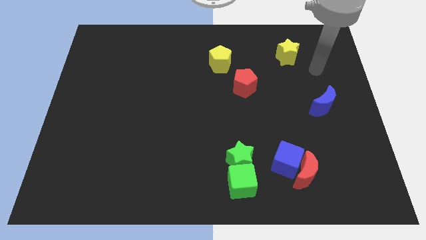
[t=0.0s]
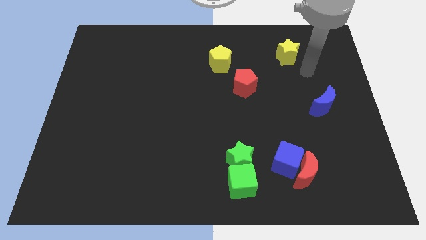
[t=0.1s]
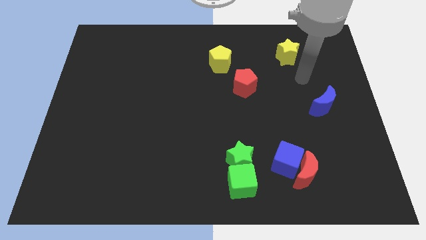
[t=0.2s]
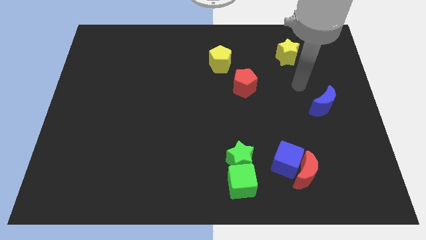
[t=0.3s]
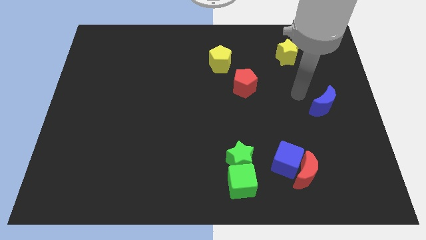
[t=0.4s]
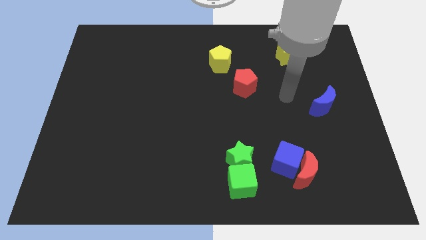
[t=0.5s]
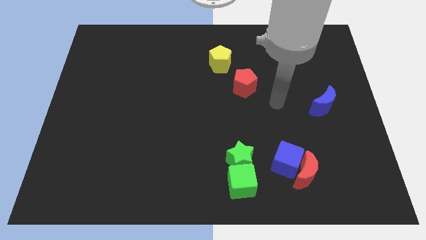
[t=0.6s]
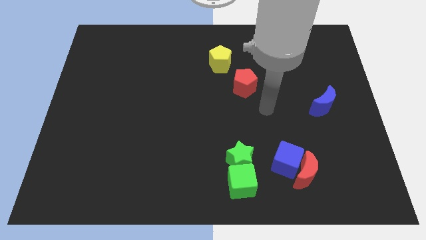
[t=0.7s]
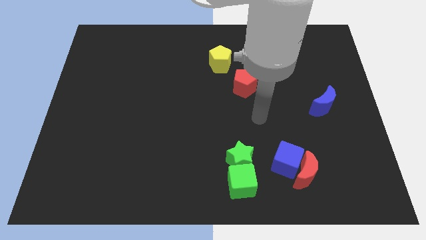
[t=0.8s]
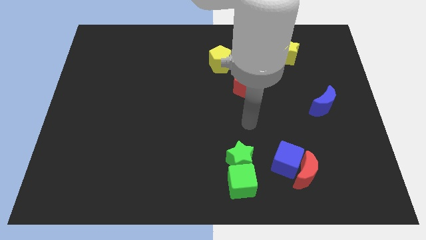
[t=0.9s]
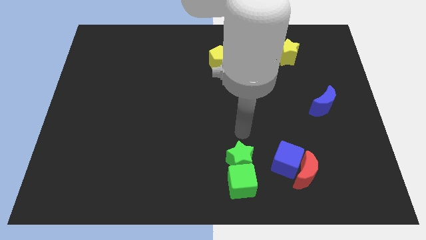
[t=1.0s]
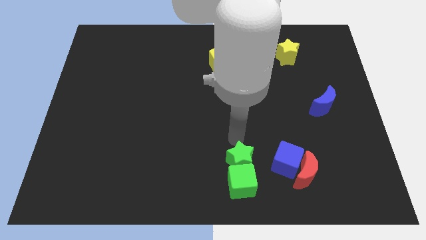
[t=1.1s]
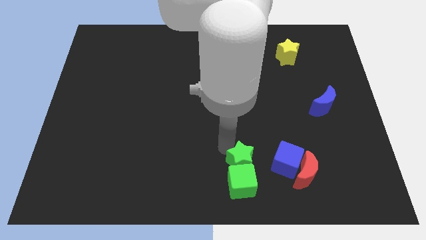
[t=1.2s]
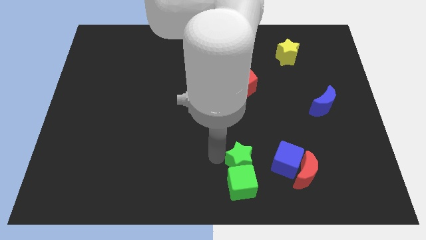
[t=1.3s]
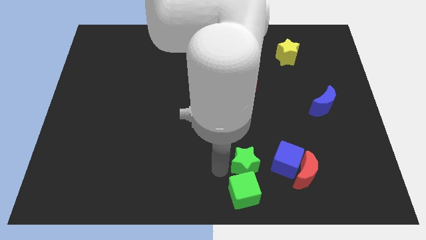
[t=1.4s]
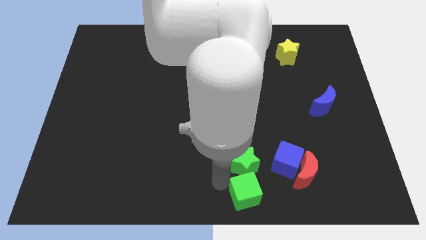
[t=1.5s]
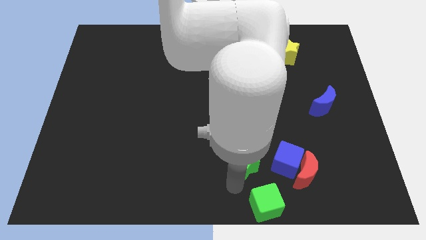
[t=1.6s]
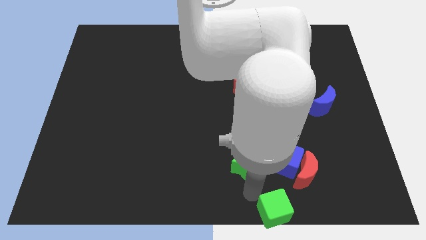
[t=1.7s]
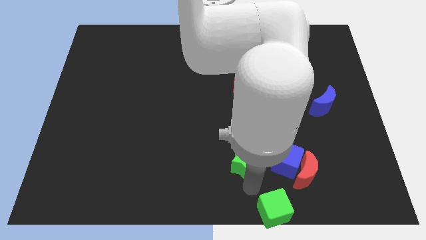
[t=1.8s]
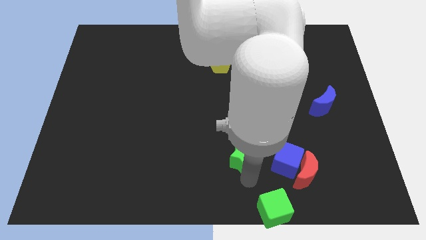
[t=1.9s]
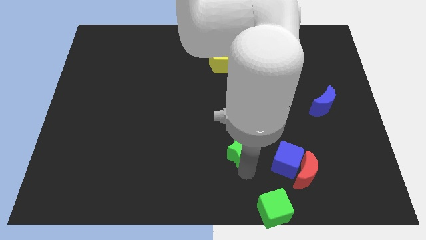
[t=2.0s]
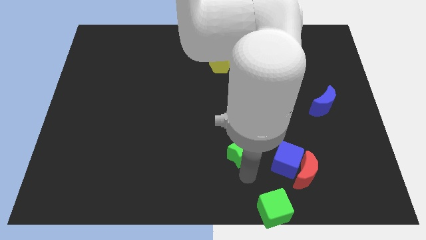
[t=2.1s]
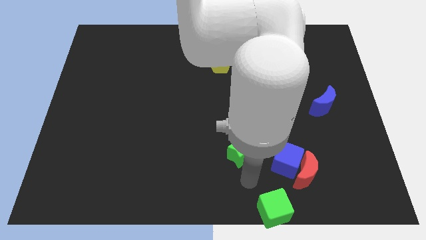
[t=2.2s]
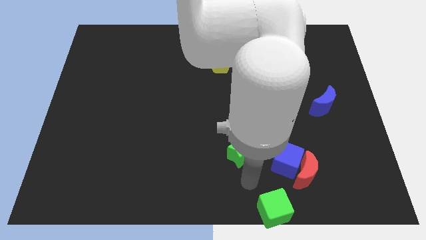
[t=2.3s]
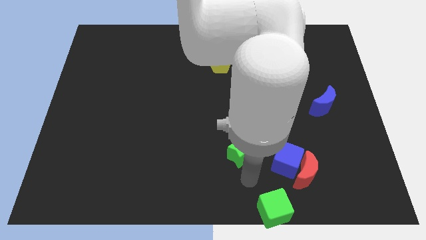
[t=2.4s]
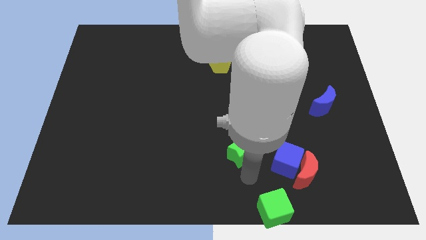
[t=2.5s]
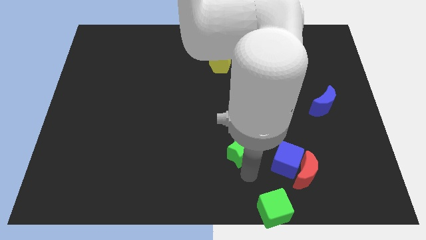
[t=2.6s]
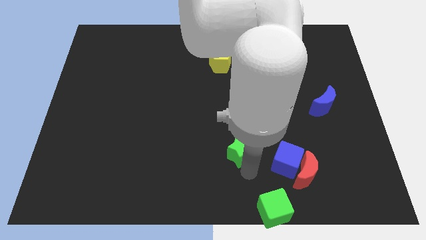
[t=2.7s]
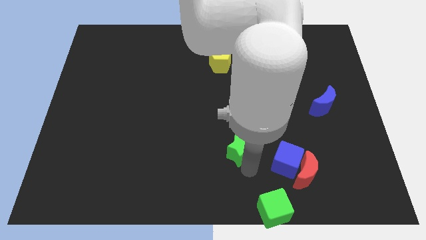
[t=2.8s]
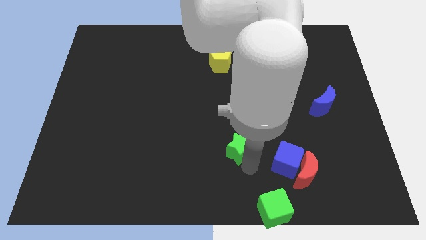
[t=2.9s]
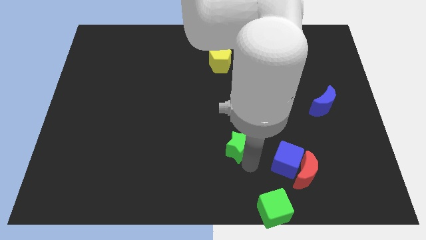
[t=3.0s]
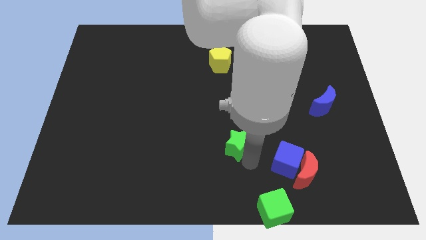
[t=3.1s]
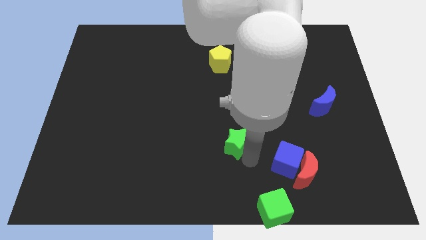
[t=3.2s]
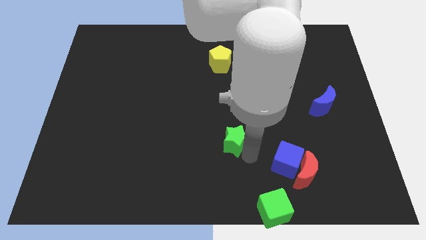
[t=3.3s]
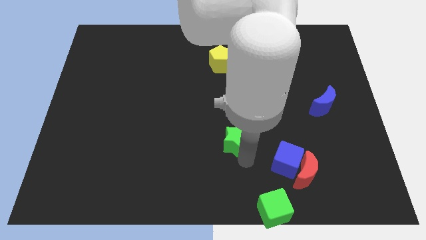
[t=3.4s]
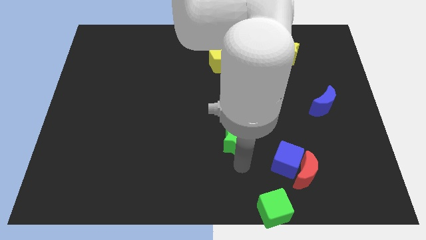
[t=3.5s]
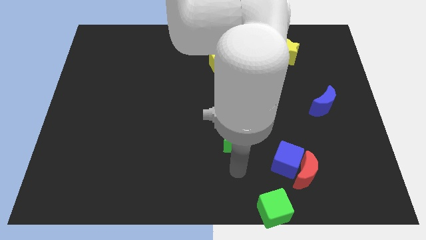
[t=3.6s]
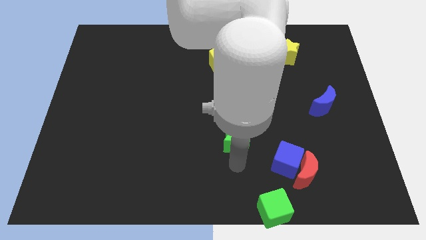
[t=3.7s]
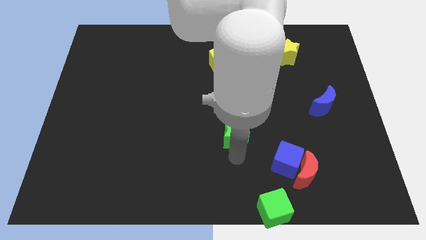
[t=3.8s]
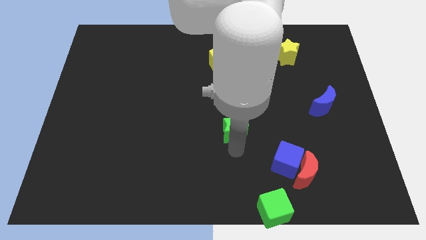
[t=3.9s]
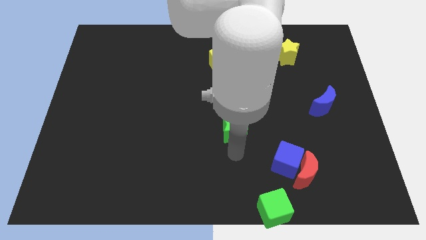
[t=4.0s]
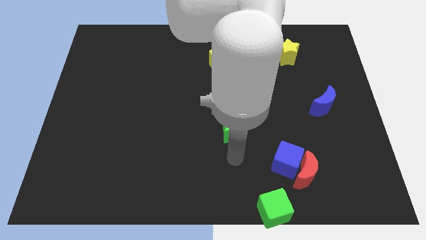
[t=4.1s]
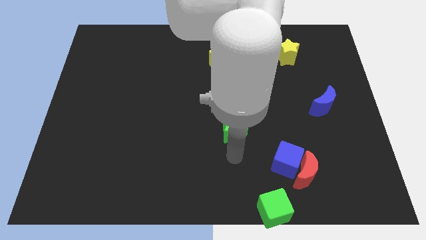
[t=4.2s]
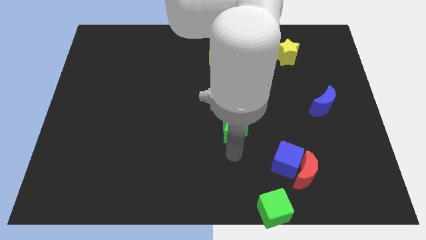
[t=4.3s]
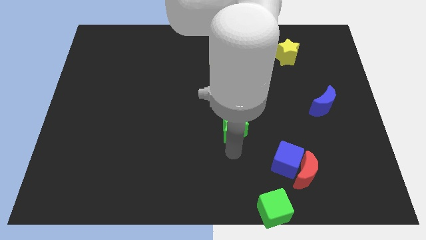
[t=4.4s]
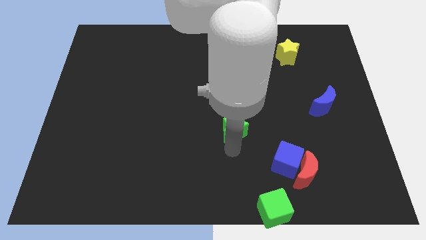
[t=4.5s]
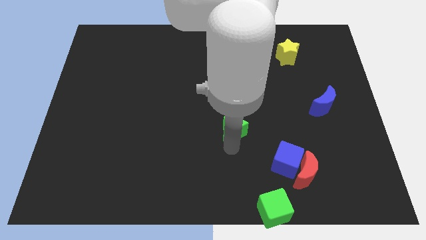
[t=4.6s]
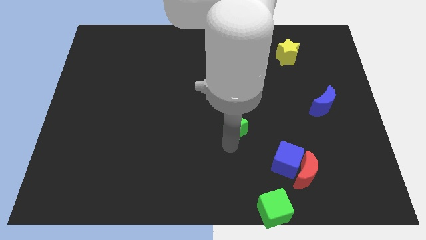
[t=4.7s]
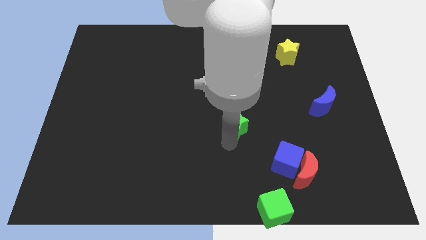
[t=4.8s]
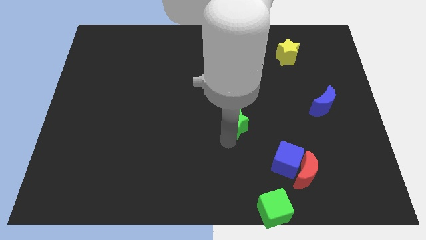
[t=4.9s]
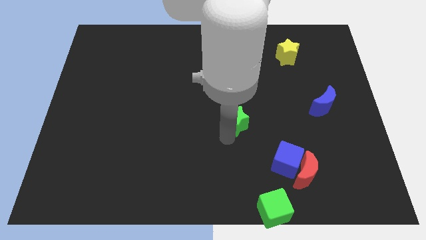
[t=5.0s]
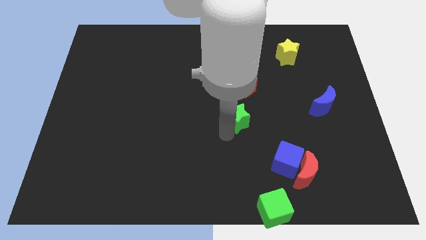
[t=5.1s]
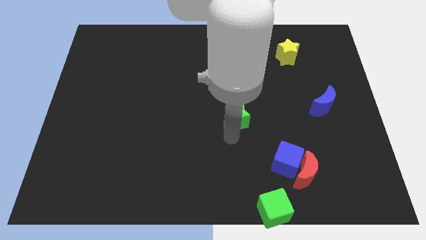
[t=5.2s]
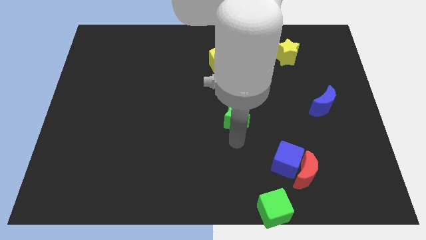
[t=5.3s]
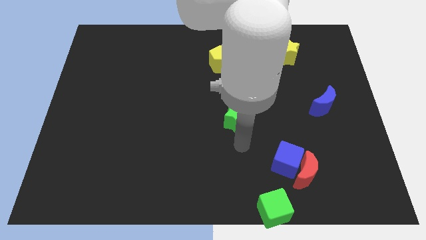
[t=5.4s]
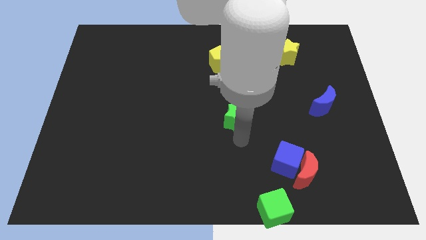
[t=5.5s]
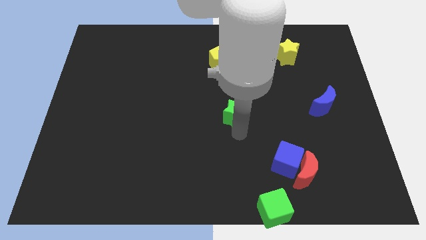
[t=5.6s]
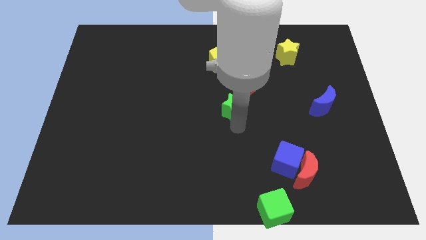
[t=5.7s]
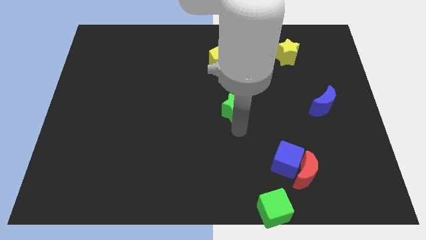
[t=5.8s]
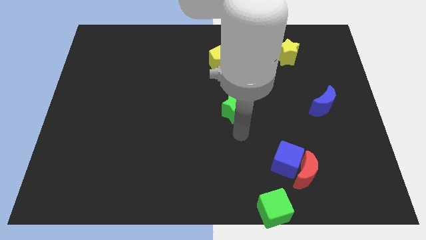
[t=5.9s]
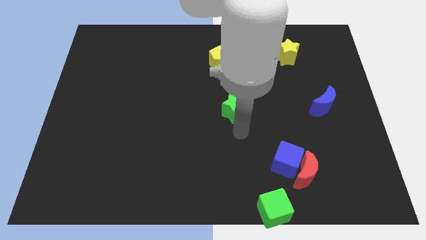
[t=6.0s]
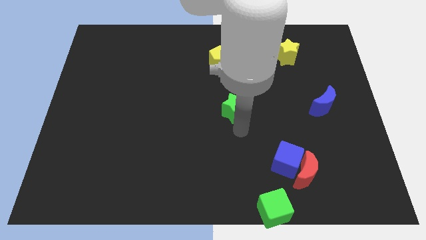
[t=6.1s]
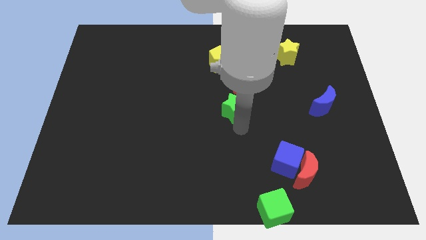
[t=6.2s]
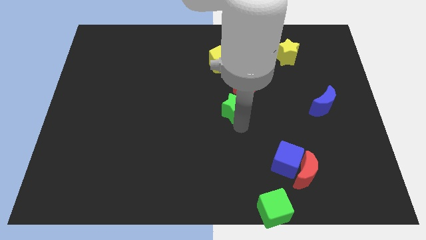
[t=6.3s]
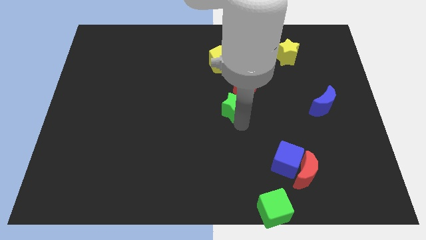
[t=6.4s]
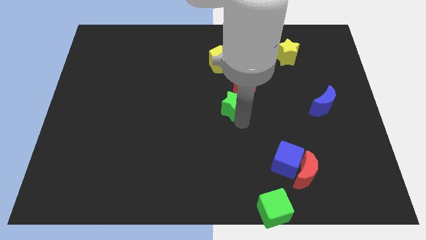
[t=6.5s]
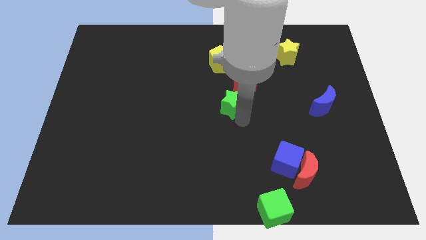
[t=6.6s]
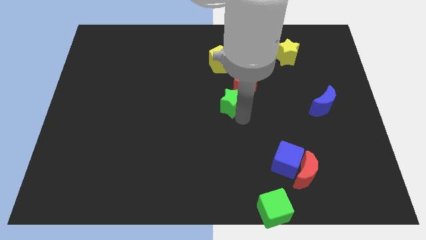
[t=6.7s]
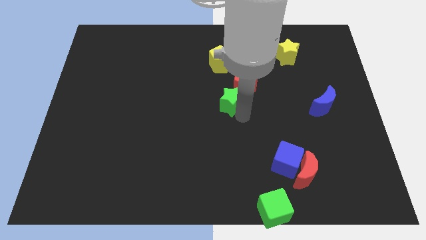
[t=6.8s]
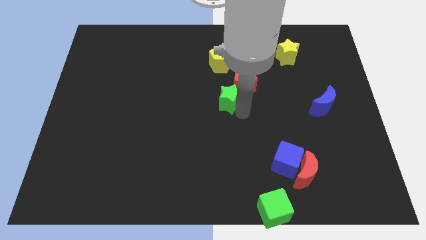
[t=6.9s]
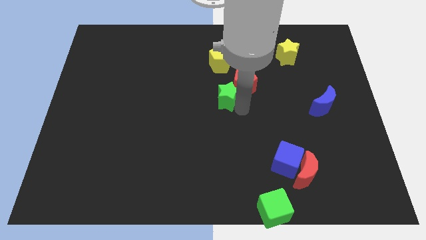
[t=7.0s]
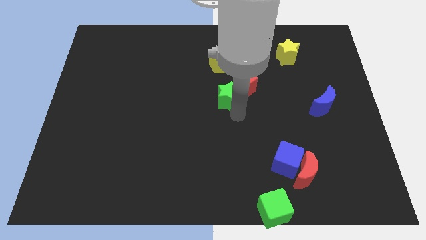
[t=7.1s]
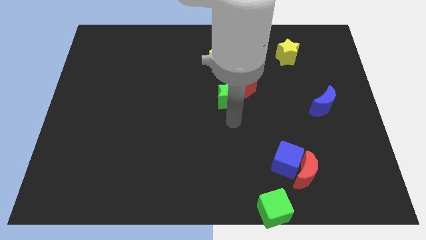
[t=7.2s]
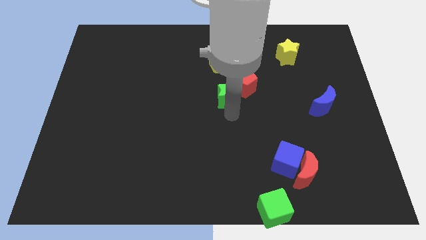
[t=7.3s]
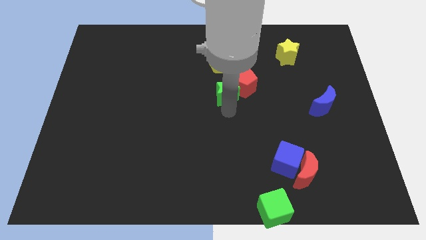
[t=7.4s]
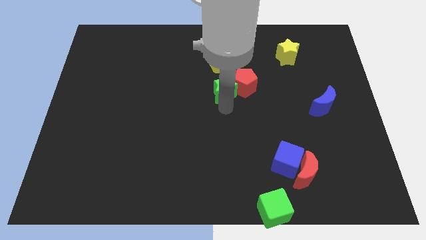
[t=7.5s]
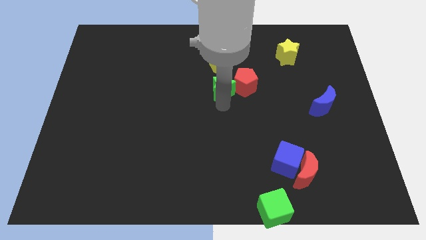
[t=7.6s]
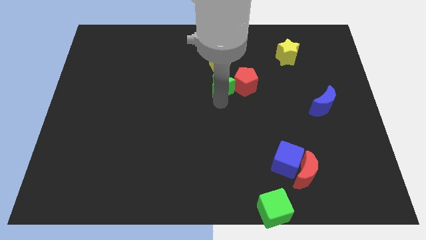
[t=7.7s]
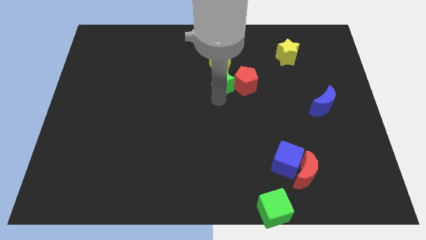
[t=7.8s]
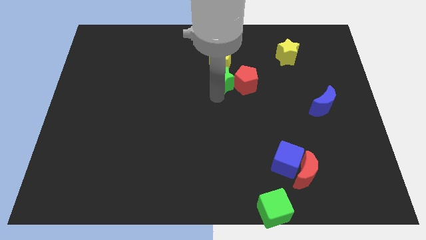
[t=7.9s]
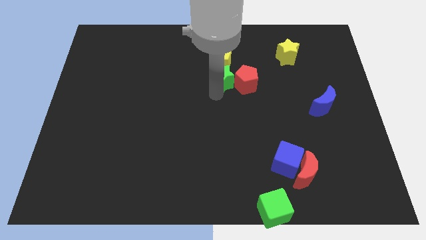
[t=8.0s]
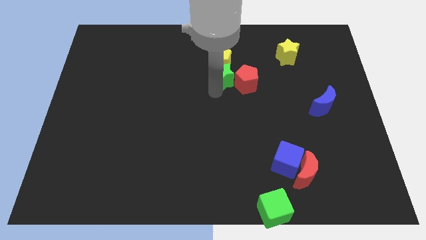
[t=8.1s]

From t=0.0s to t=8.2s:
move the green star to the yellow pentagon
